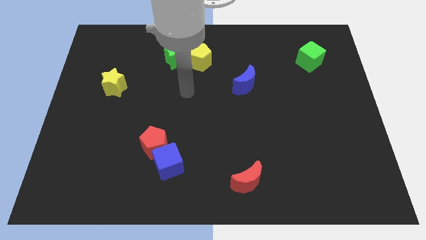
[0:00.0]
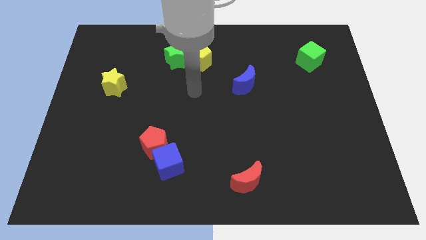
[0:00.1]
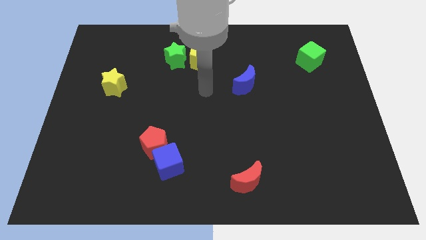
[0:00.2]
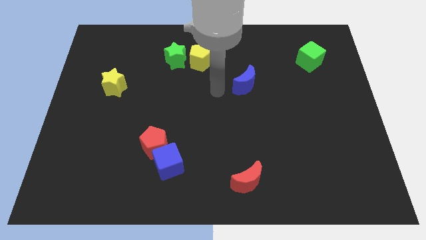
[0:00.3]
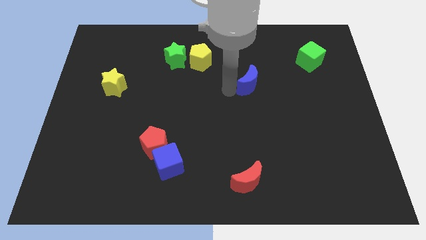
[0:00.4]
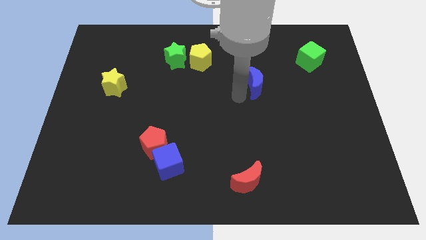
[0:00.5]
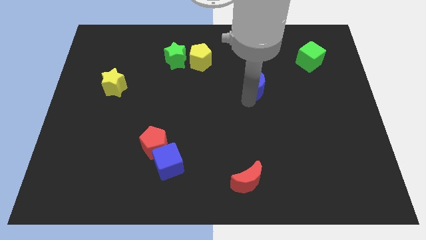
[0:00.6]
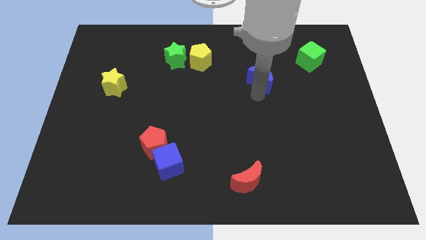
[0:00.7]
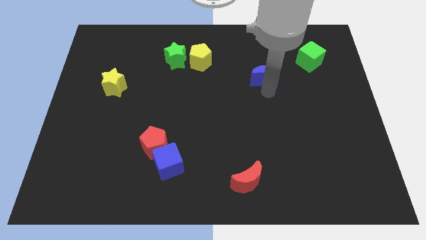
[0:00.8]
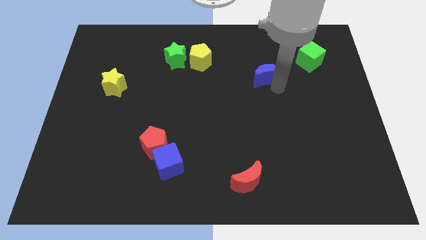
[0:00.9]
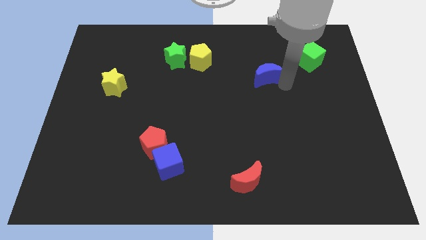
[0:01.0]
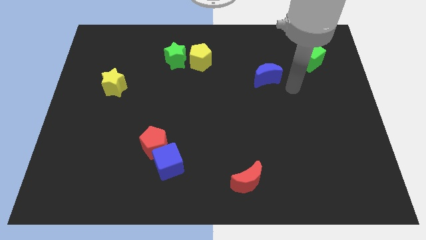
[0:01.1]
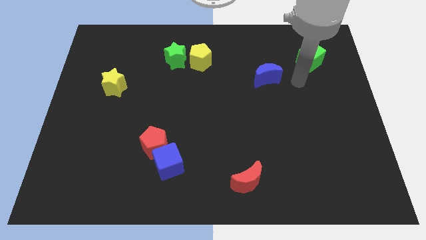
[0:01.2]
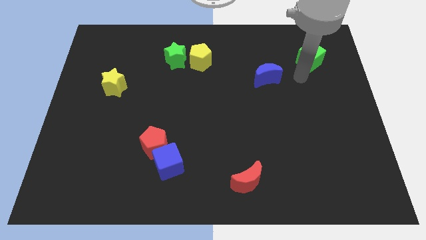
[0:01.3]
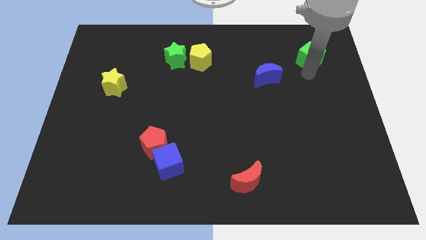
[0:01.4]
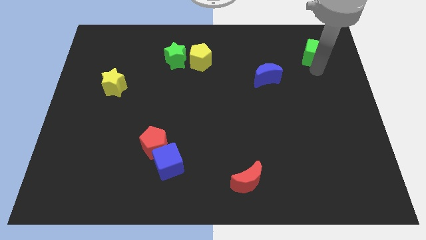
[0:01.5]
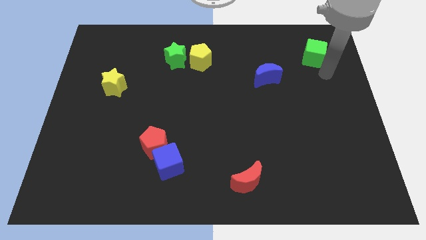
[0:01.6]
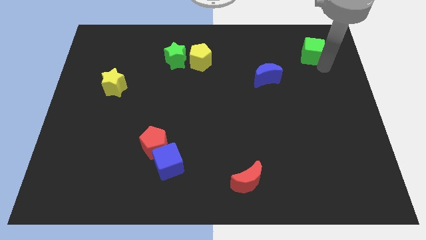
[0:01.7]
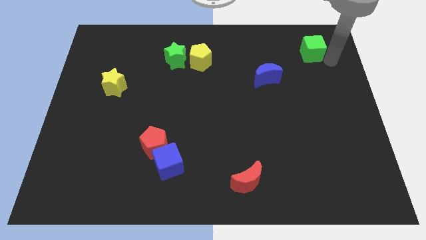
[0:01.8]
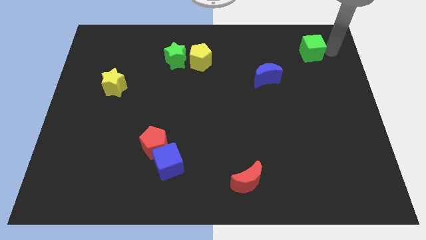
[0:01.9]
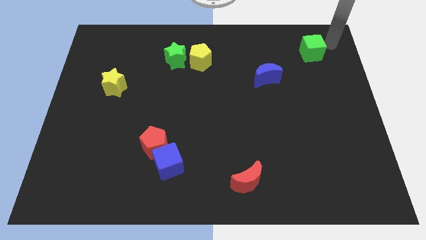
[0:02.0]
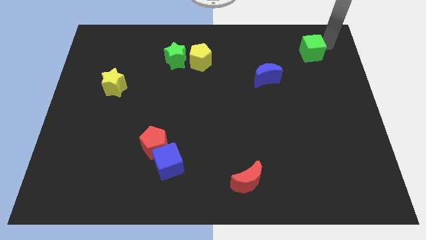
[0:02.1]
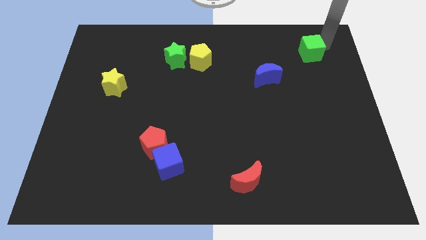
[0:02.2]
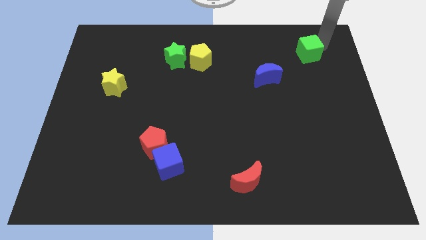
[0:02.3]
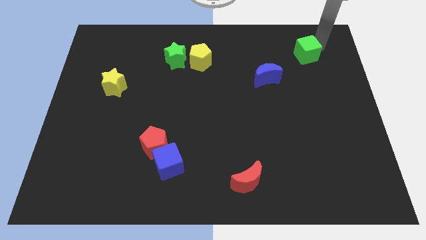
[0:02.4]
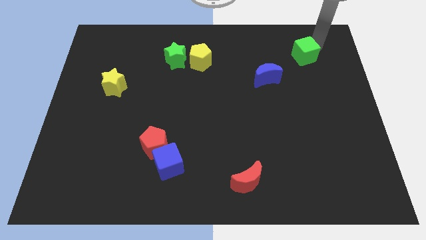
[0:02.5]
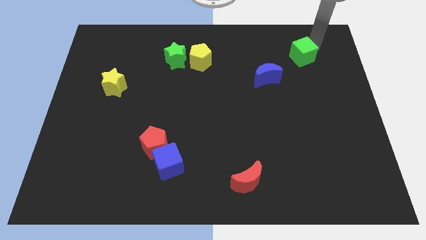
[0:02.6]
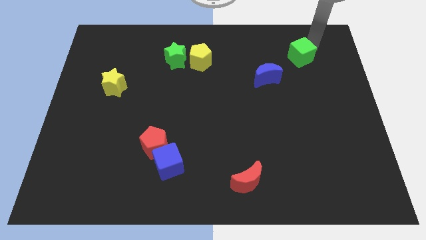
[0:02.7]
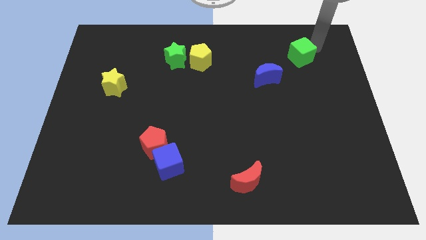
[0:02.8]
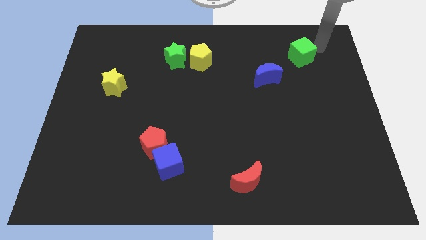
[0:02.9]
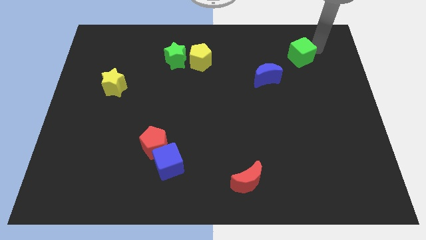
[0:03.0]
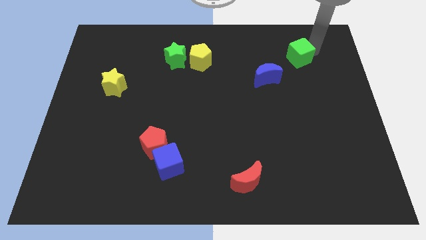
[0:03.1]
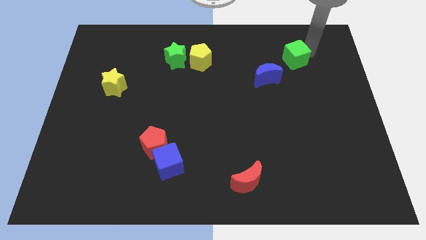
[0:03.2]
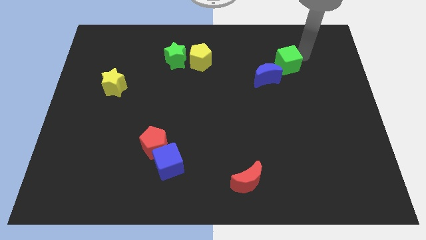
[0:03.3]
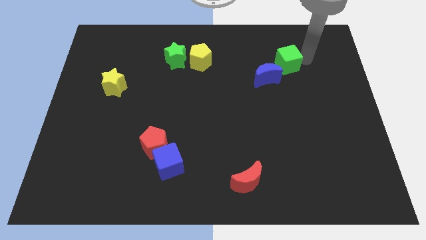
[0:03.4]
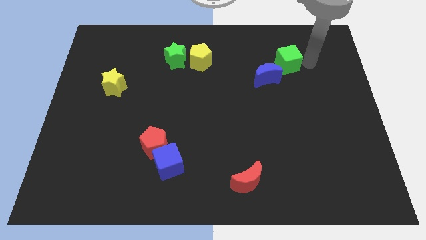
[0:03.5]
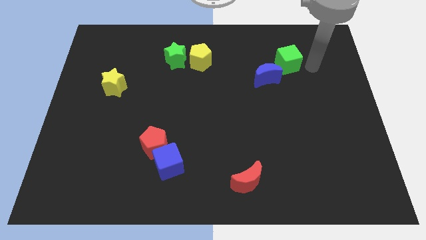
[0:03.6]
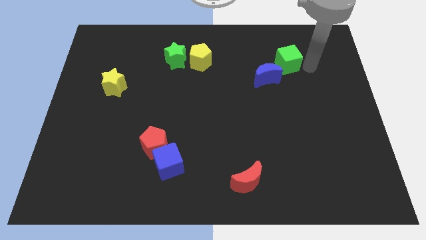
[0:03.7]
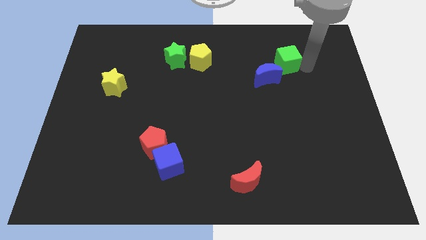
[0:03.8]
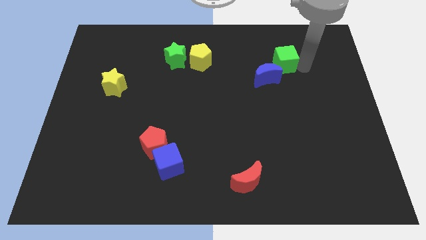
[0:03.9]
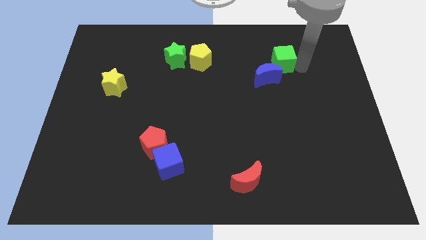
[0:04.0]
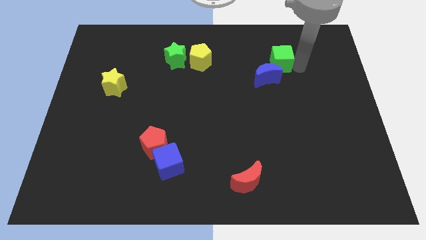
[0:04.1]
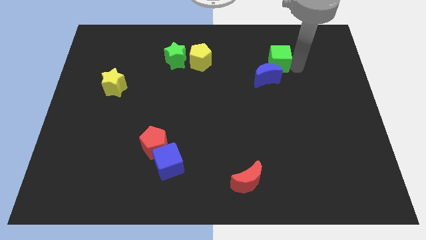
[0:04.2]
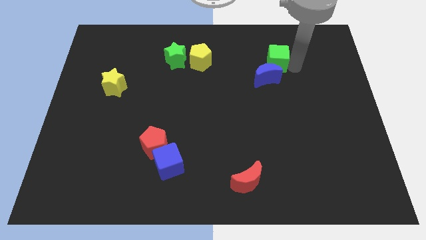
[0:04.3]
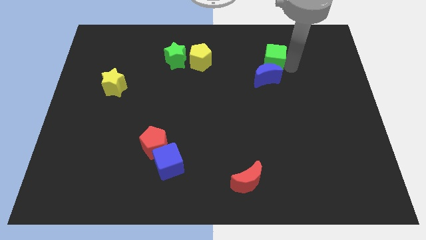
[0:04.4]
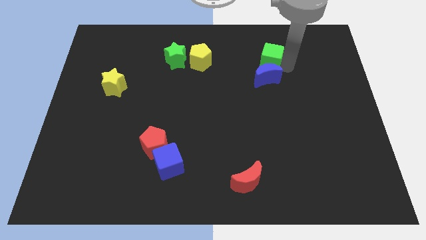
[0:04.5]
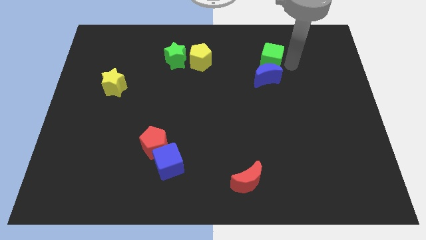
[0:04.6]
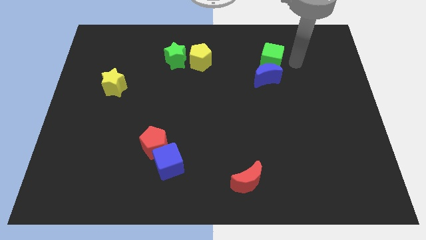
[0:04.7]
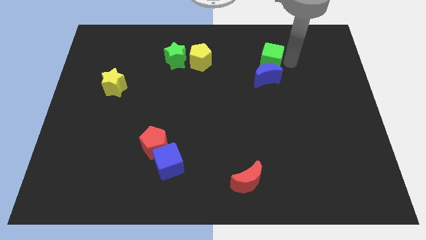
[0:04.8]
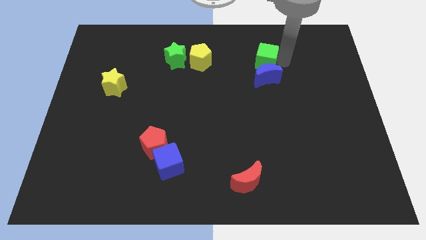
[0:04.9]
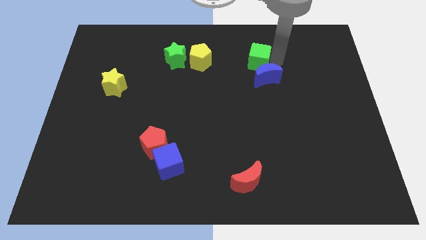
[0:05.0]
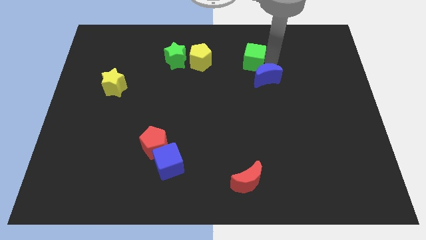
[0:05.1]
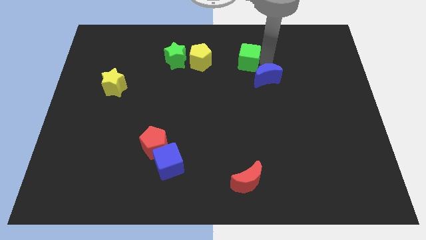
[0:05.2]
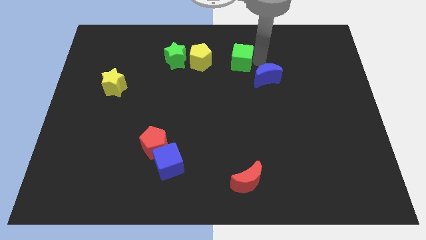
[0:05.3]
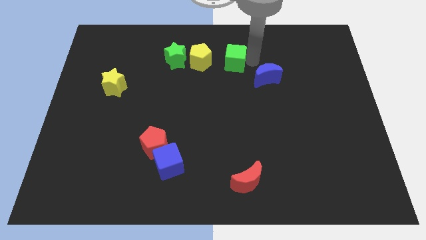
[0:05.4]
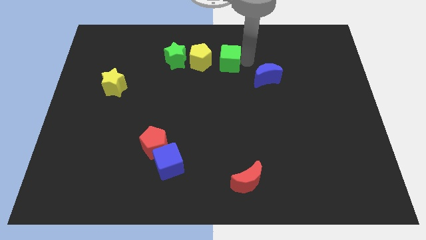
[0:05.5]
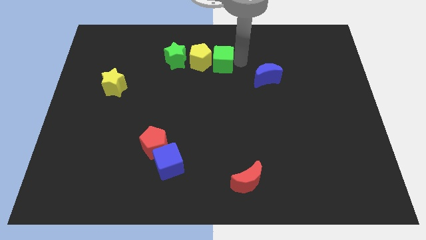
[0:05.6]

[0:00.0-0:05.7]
slide the green cube close to the yellow pentagon

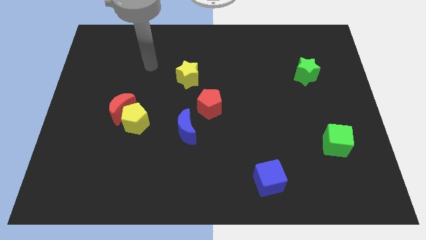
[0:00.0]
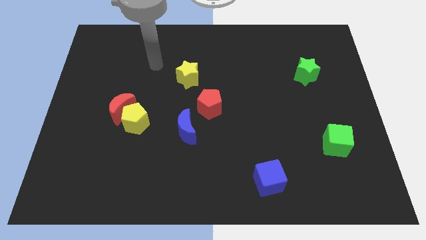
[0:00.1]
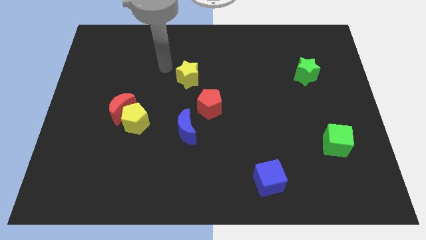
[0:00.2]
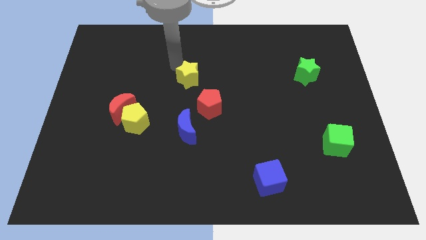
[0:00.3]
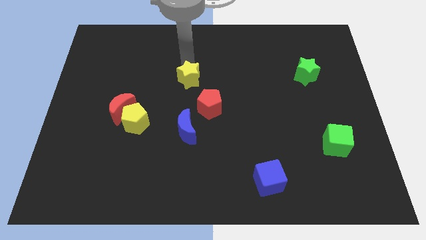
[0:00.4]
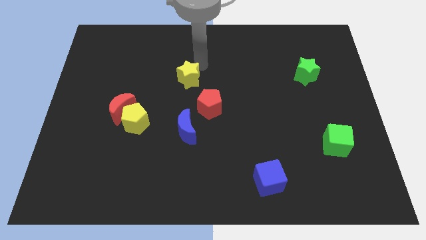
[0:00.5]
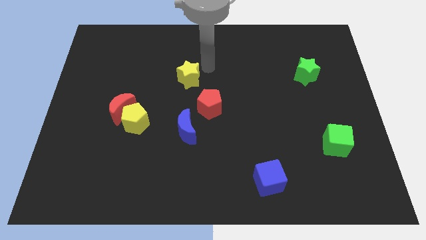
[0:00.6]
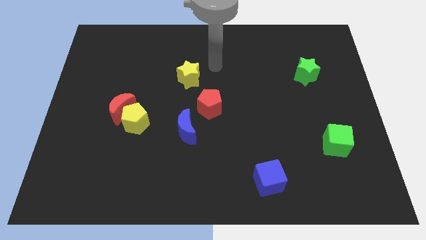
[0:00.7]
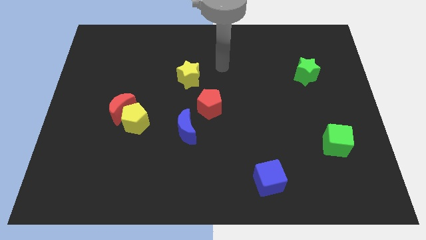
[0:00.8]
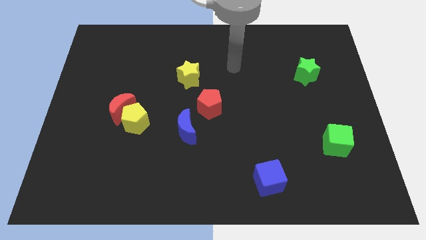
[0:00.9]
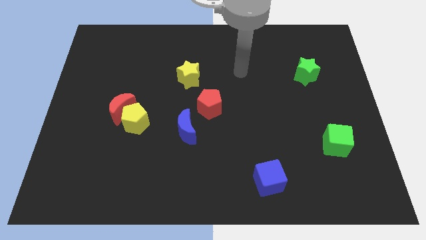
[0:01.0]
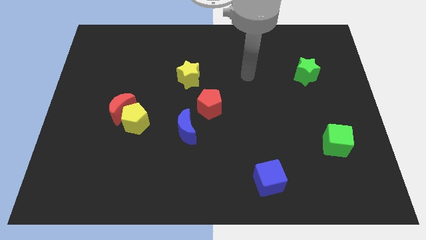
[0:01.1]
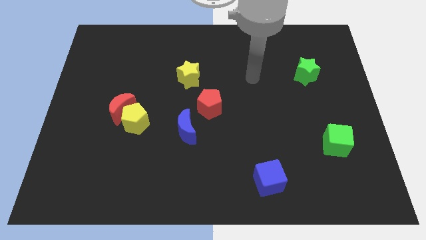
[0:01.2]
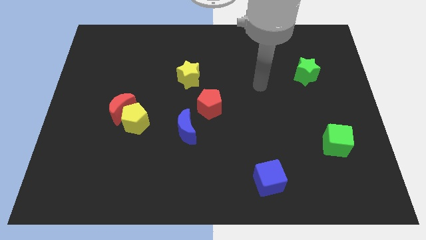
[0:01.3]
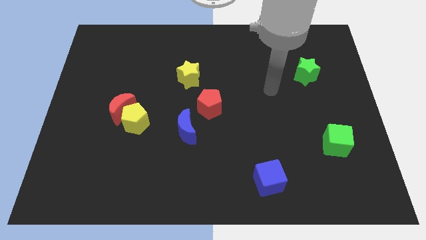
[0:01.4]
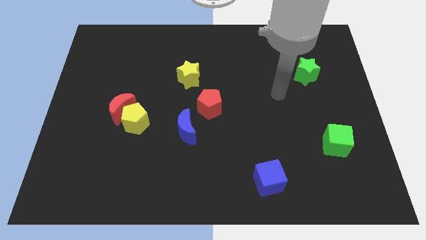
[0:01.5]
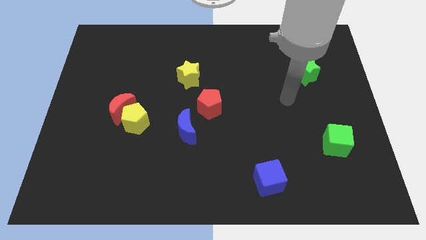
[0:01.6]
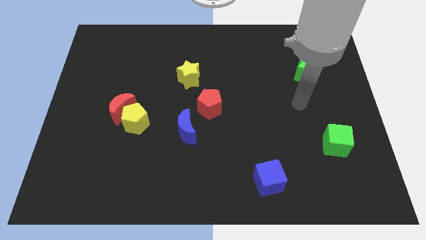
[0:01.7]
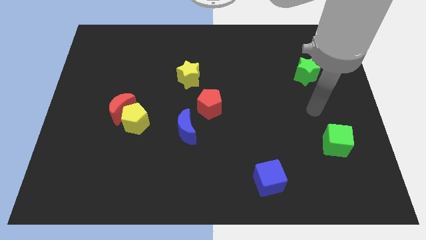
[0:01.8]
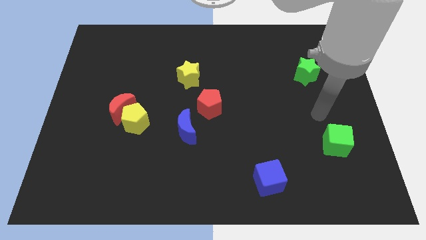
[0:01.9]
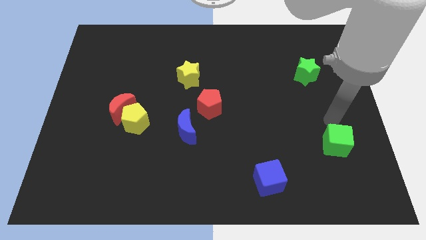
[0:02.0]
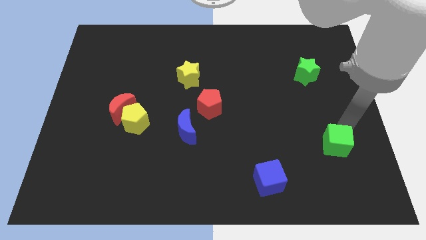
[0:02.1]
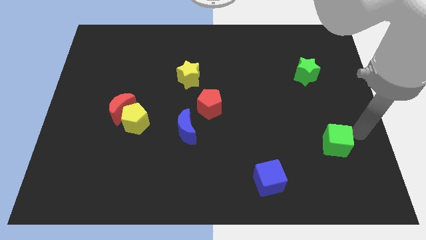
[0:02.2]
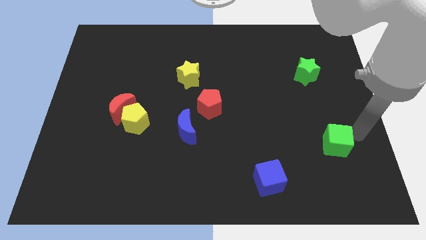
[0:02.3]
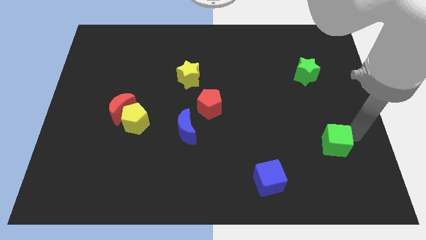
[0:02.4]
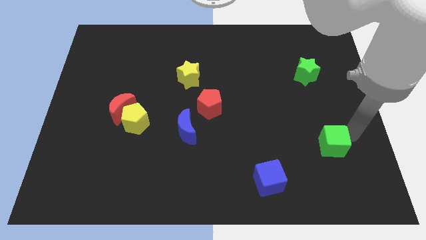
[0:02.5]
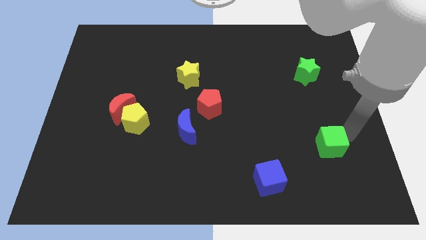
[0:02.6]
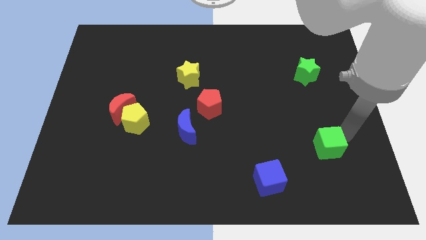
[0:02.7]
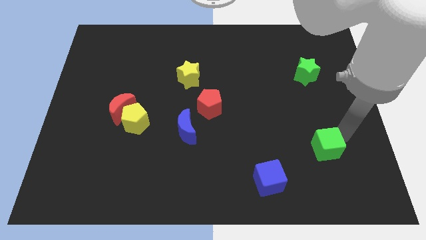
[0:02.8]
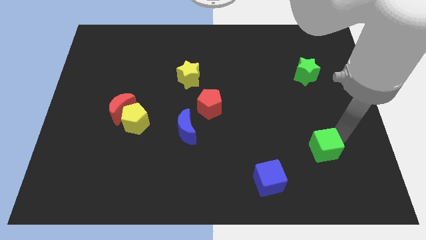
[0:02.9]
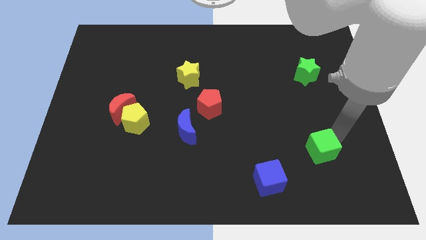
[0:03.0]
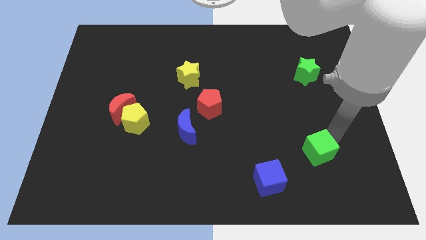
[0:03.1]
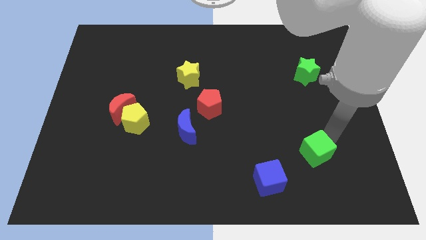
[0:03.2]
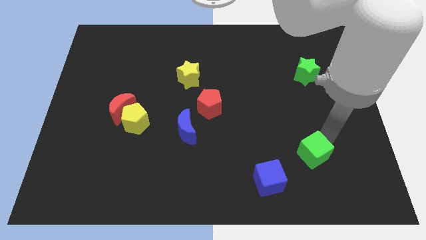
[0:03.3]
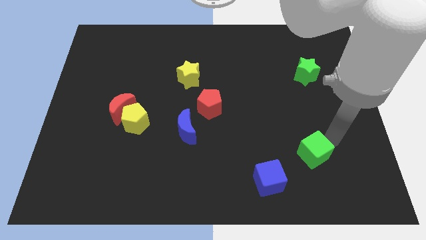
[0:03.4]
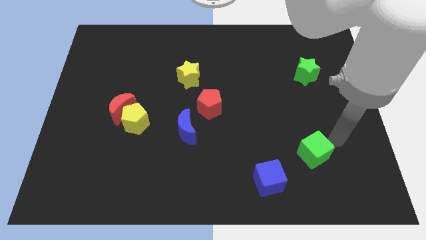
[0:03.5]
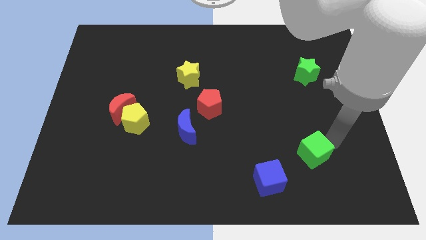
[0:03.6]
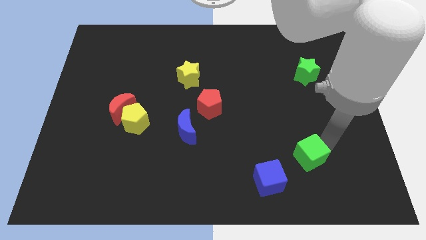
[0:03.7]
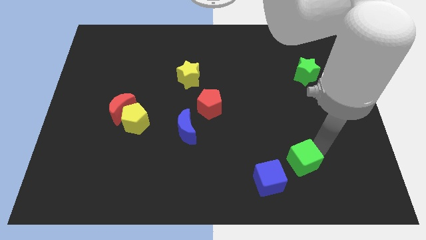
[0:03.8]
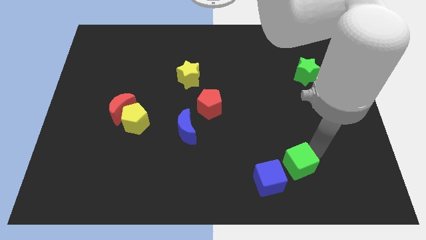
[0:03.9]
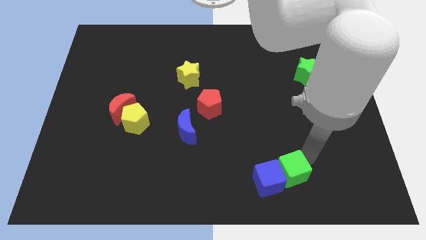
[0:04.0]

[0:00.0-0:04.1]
put the green cube close to the blue cube
